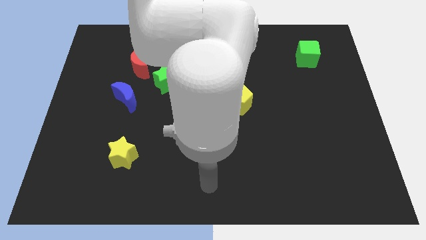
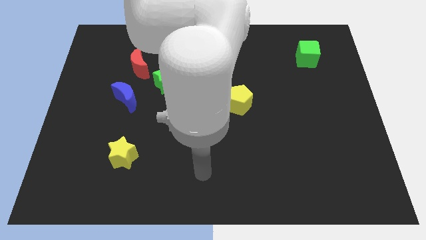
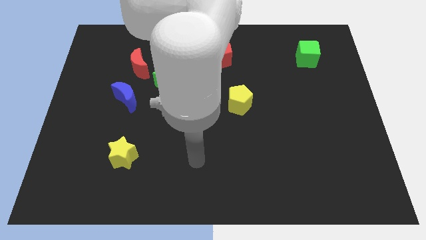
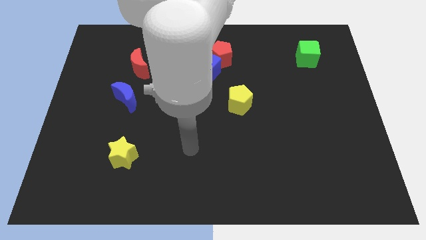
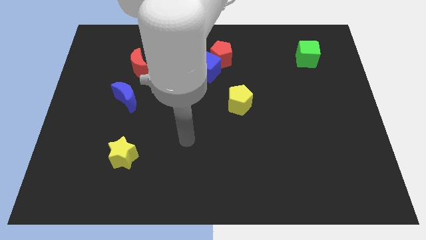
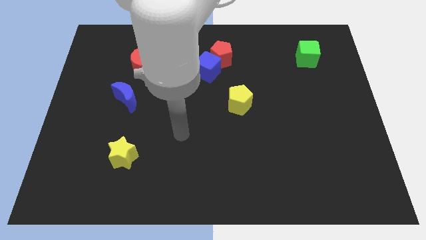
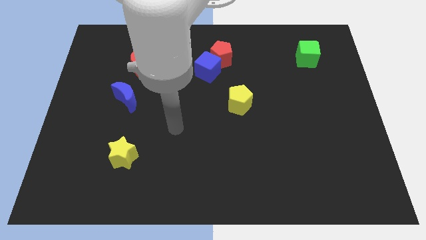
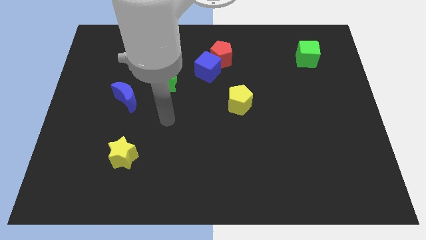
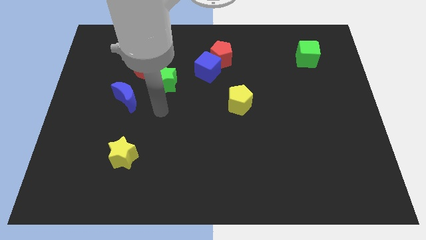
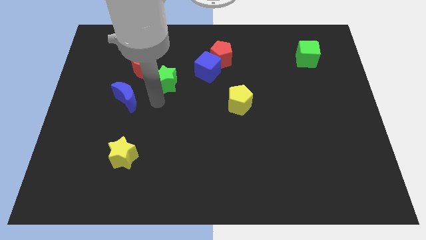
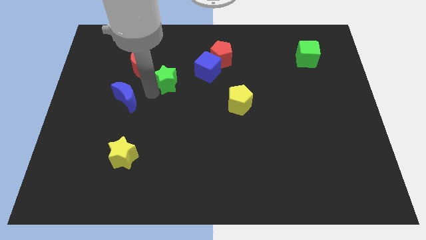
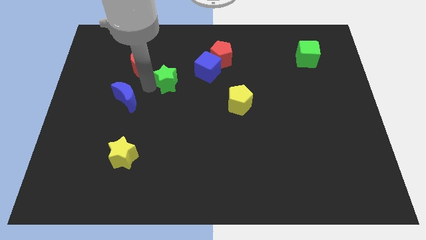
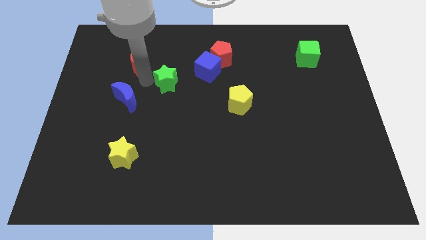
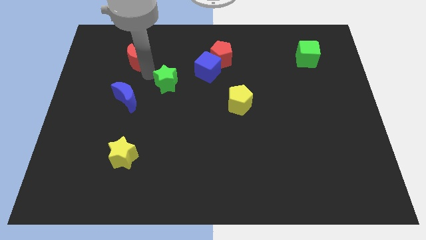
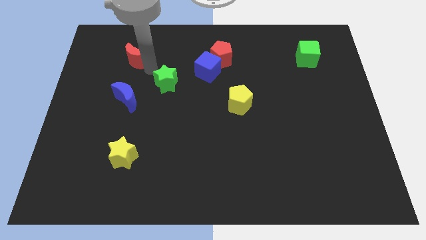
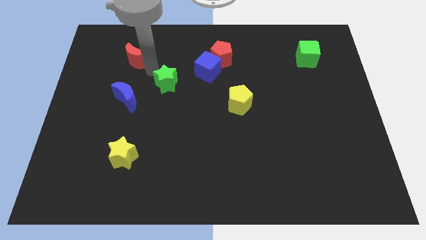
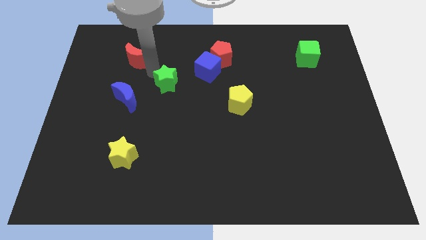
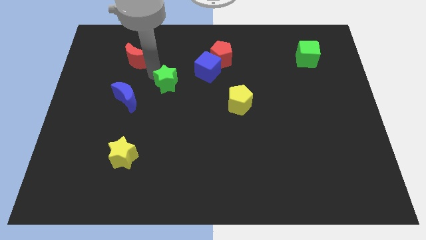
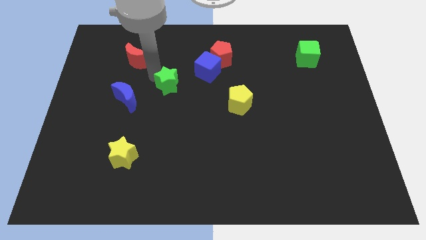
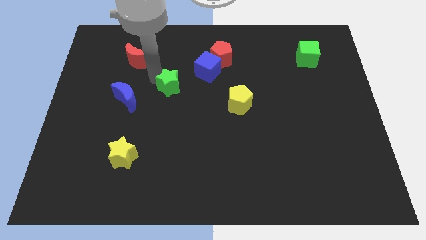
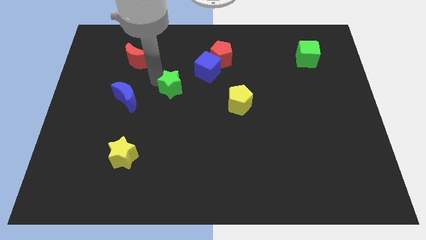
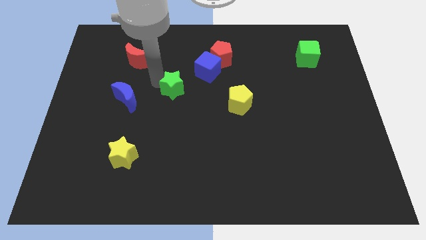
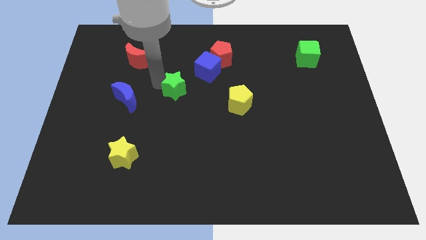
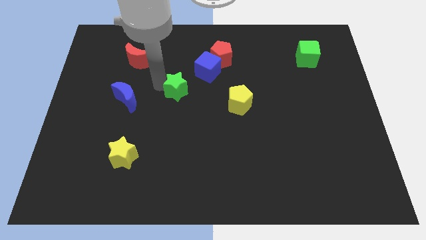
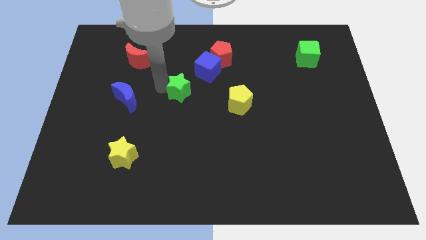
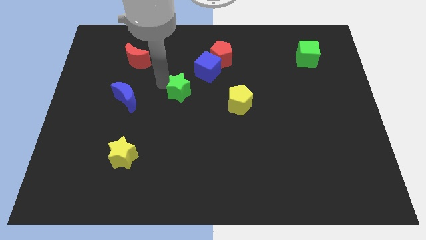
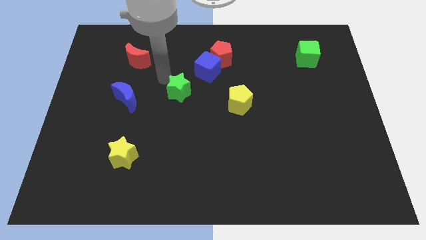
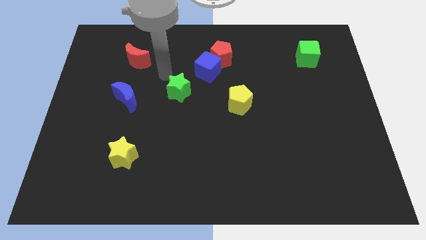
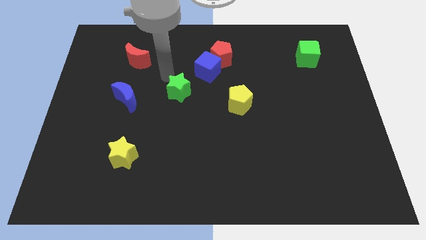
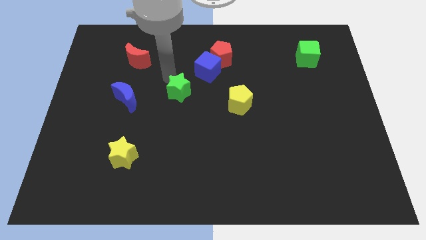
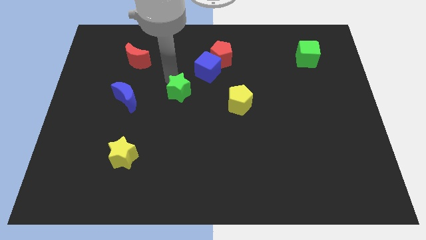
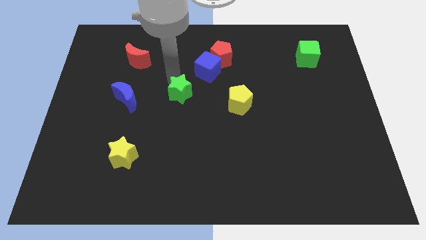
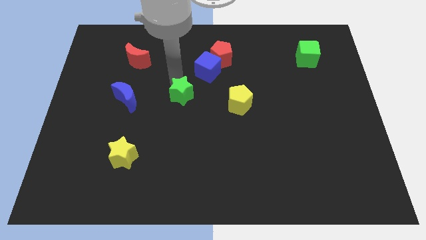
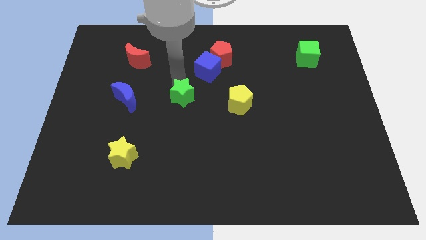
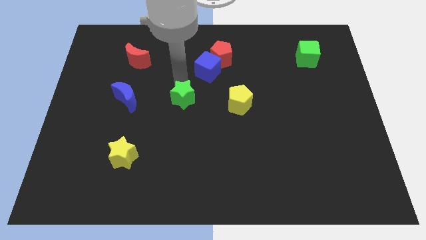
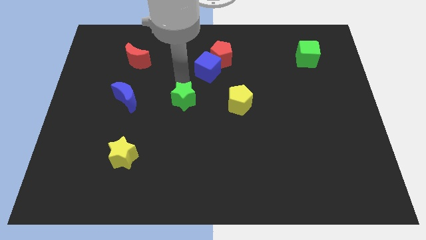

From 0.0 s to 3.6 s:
push the green star a little bit down and then right

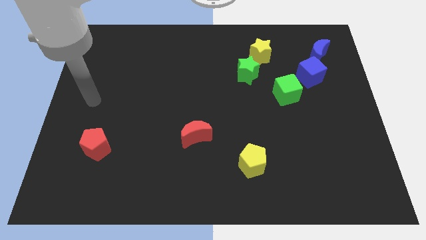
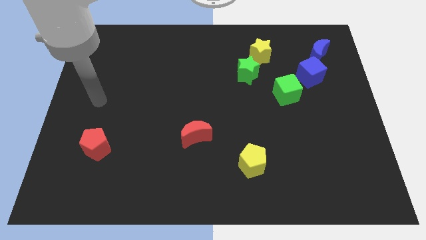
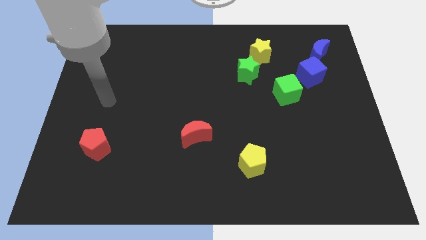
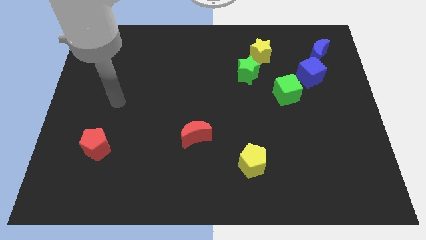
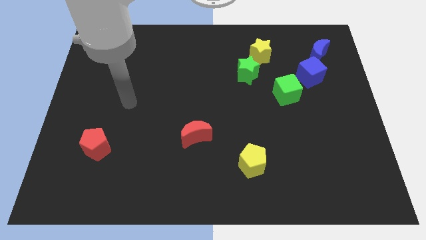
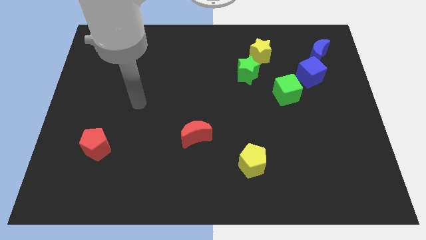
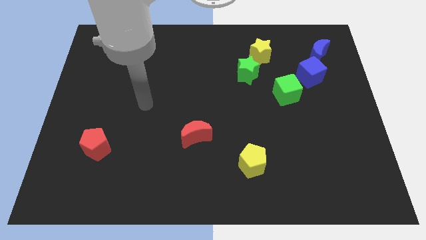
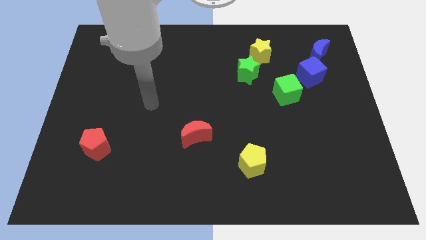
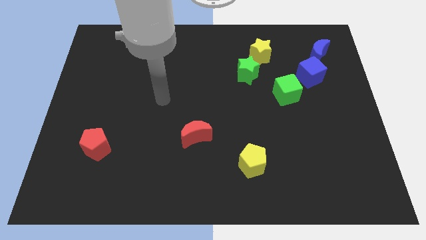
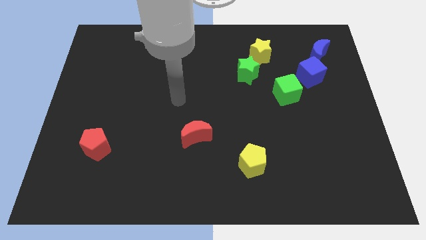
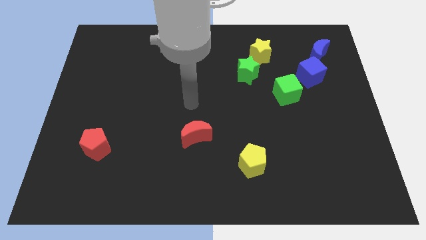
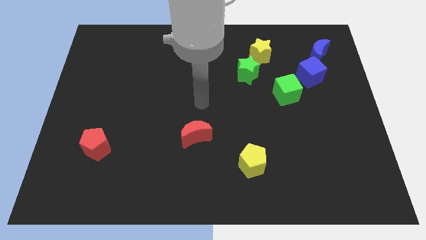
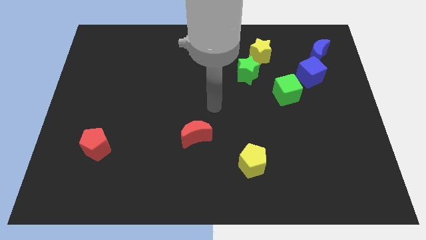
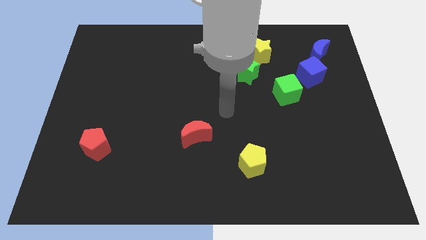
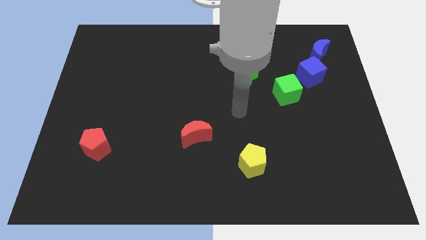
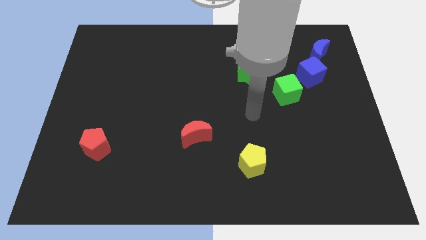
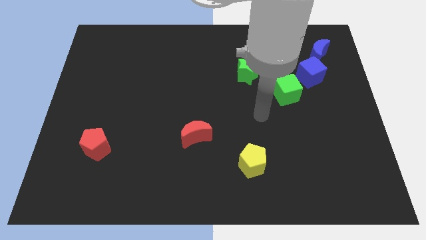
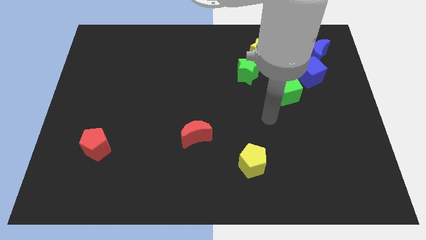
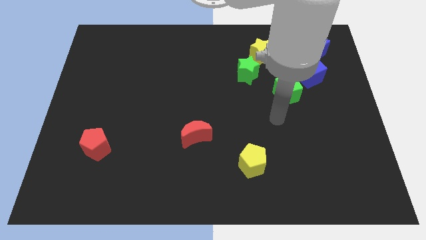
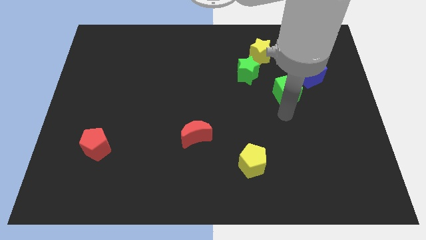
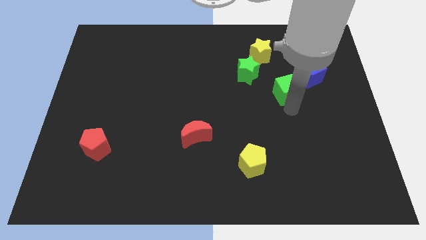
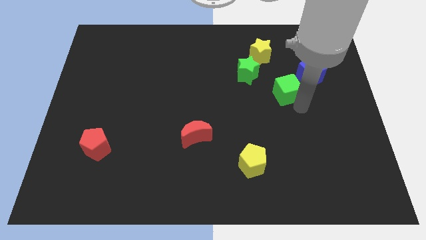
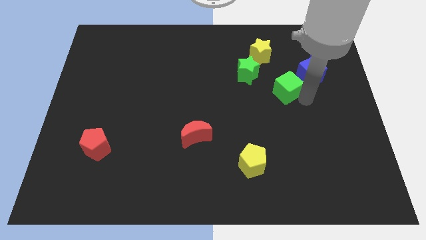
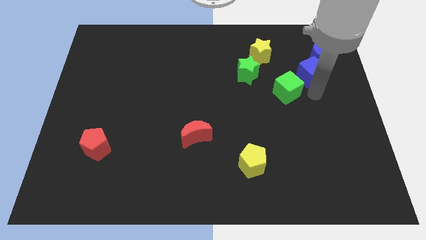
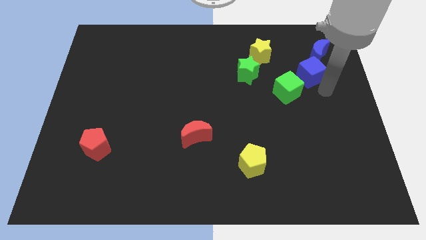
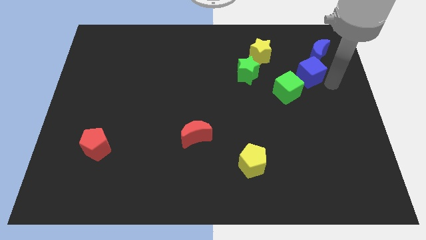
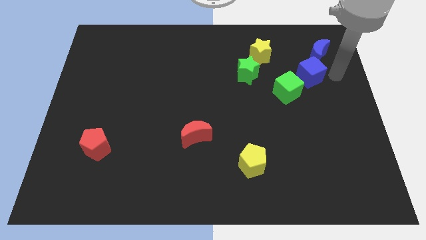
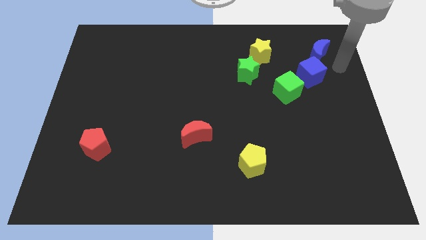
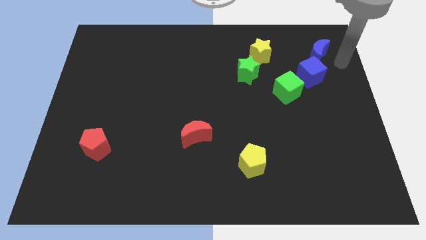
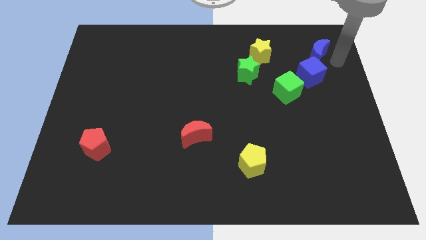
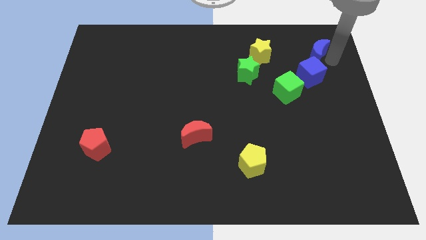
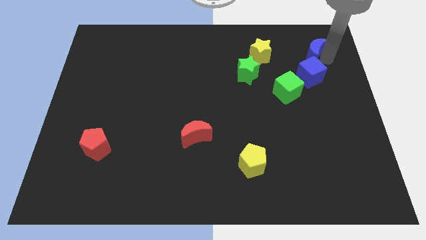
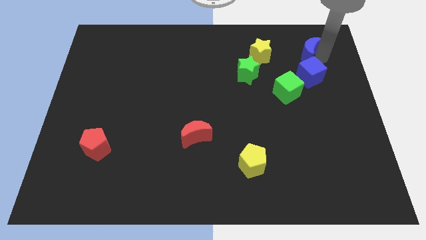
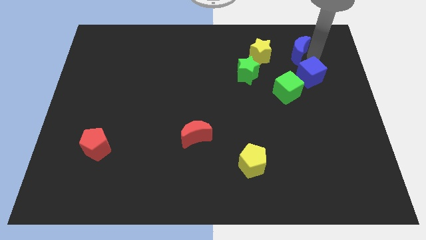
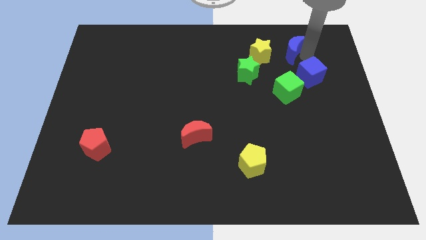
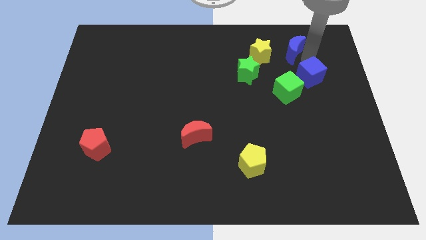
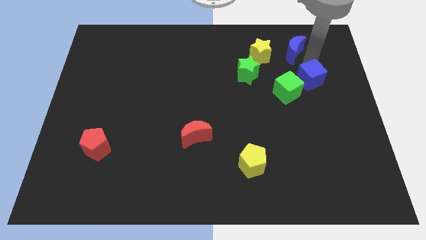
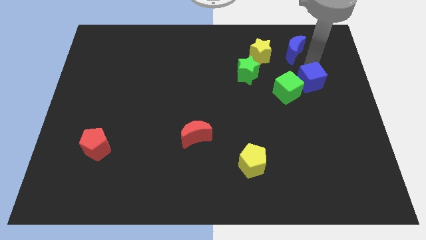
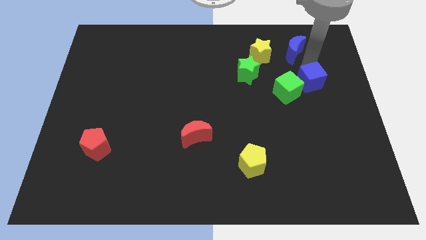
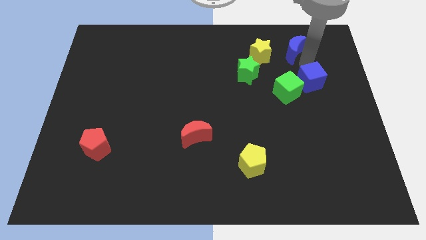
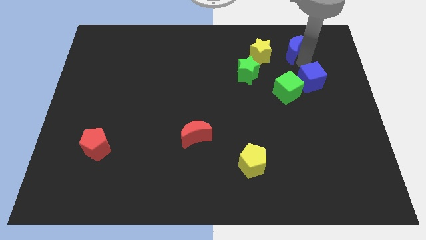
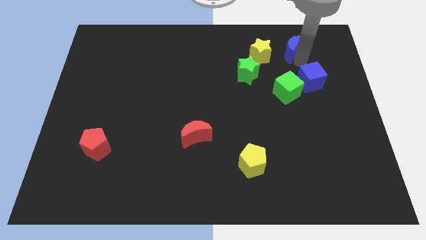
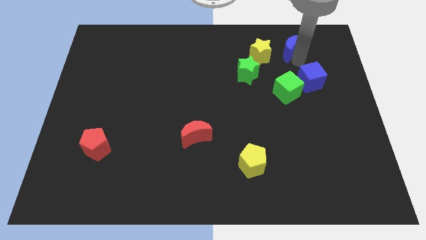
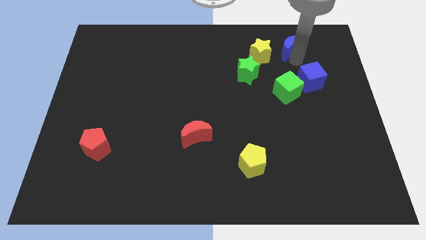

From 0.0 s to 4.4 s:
push the blue moon left slightly
